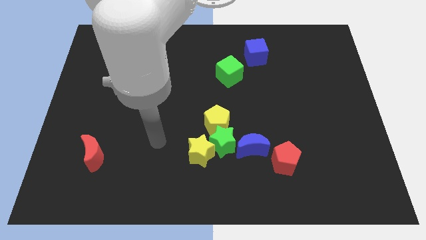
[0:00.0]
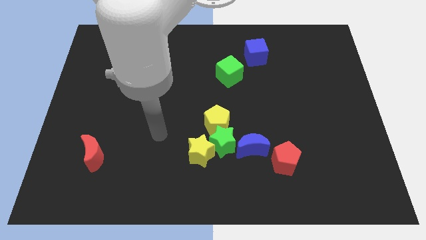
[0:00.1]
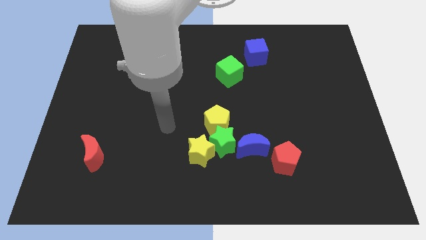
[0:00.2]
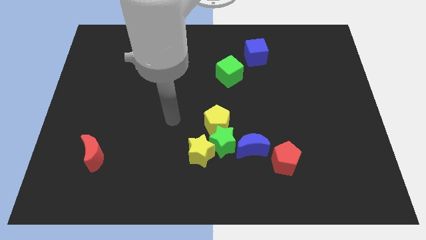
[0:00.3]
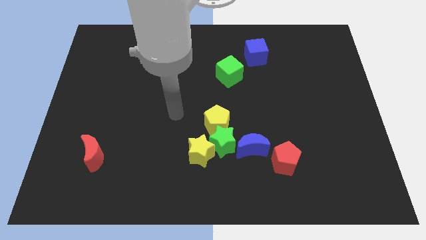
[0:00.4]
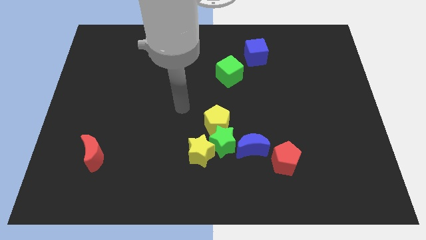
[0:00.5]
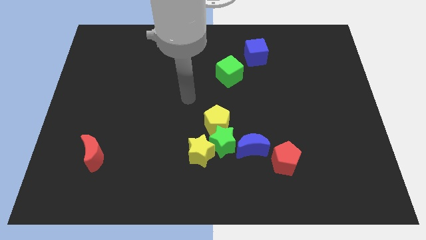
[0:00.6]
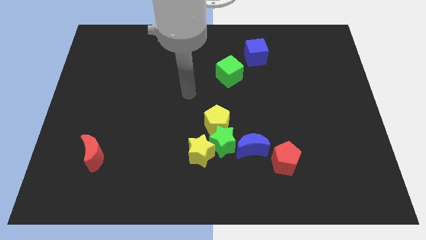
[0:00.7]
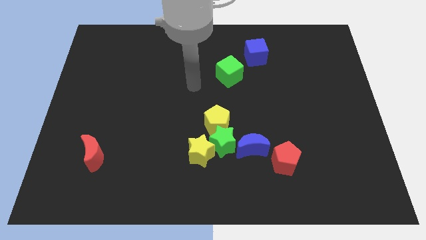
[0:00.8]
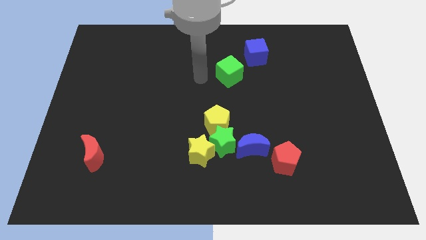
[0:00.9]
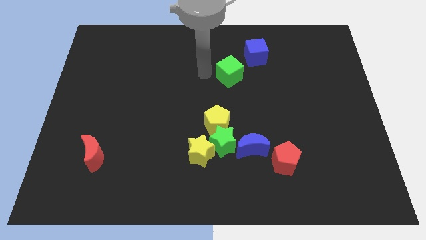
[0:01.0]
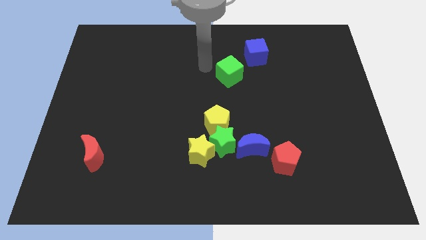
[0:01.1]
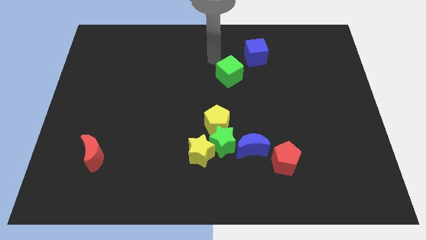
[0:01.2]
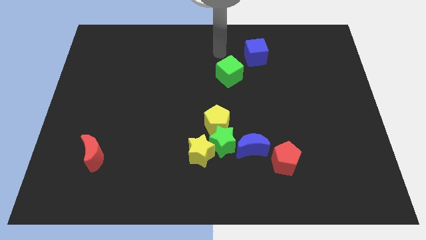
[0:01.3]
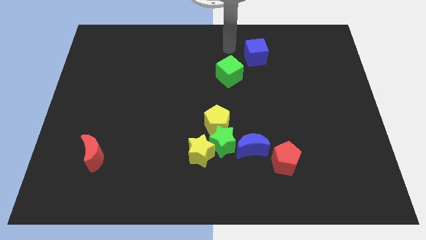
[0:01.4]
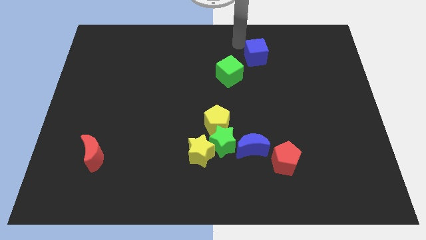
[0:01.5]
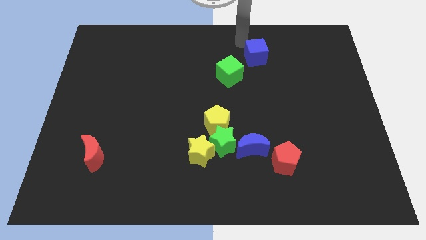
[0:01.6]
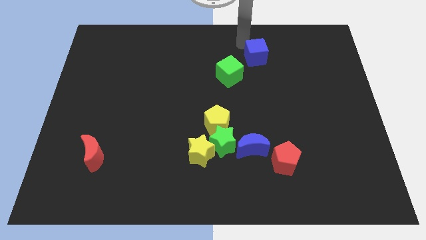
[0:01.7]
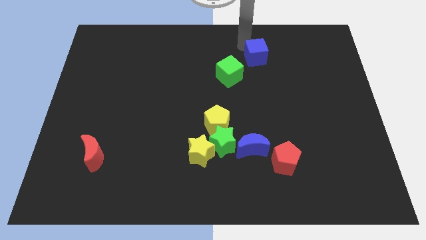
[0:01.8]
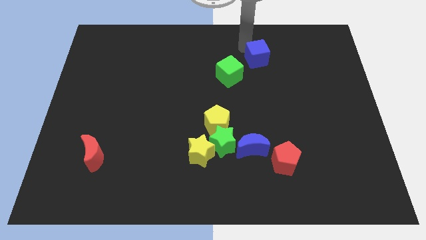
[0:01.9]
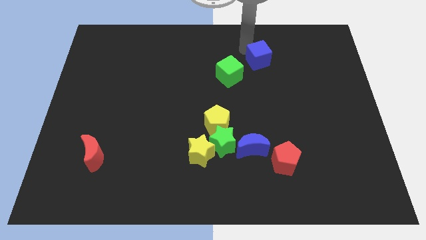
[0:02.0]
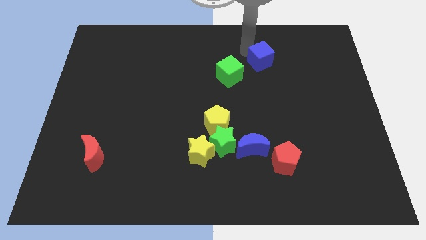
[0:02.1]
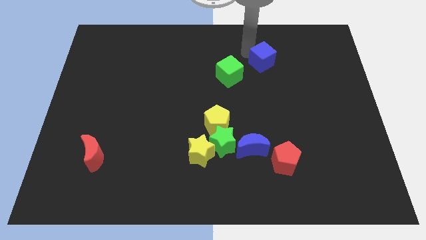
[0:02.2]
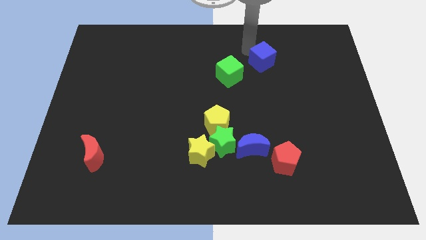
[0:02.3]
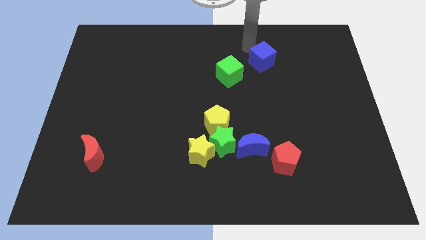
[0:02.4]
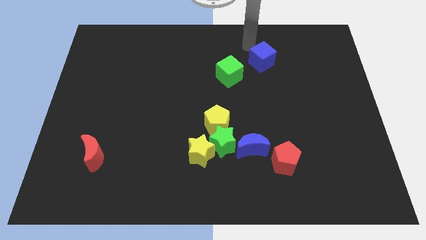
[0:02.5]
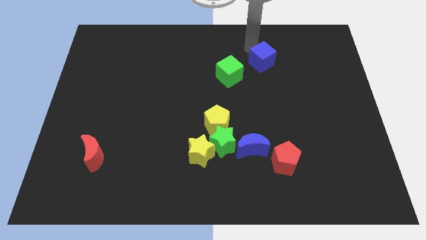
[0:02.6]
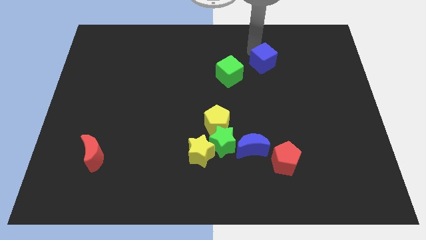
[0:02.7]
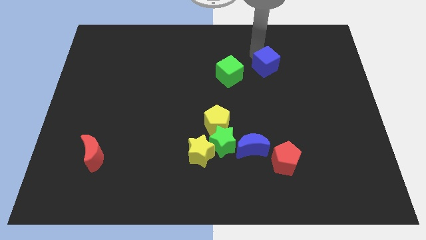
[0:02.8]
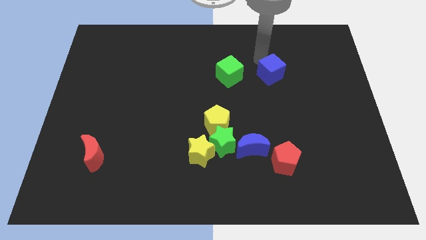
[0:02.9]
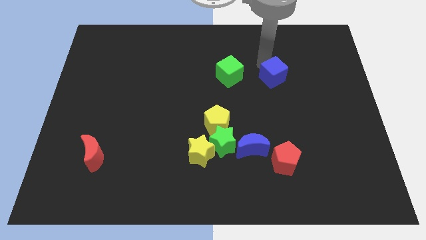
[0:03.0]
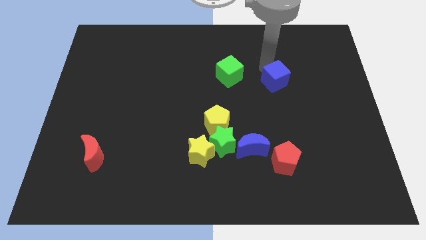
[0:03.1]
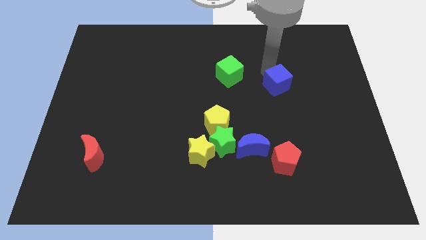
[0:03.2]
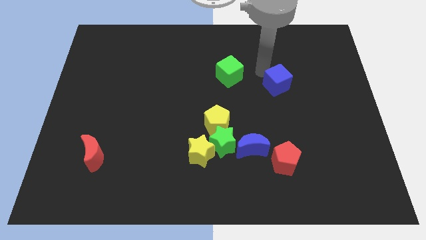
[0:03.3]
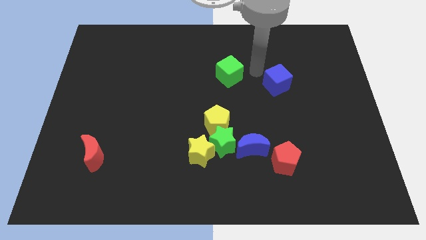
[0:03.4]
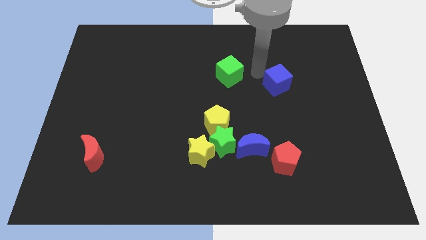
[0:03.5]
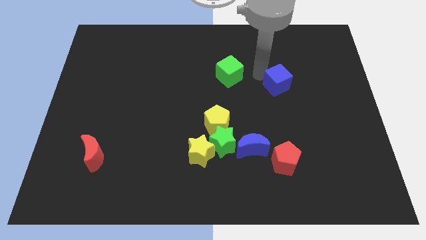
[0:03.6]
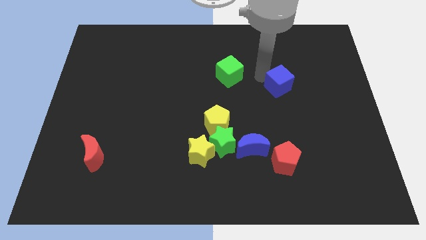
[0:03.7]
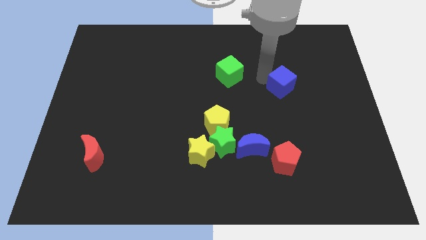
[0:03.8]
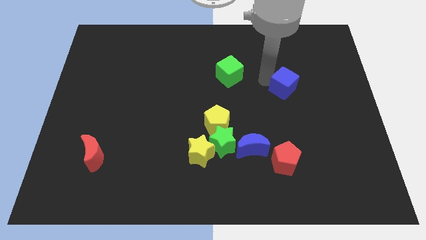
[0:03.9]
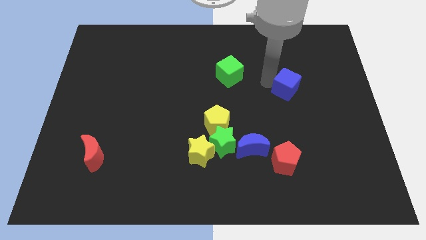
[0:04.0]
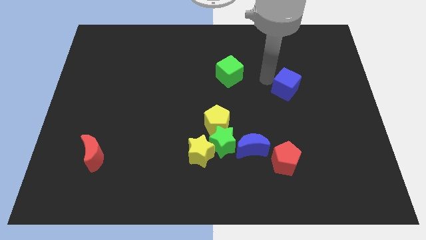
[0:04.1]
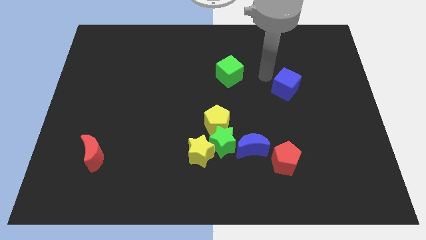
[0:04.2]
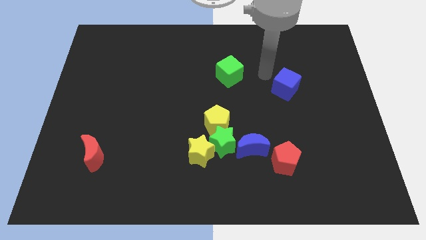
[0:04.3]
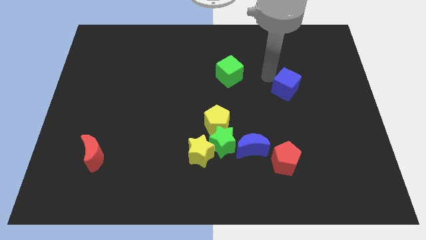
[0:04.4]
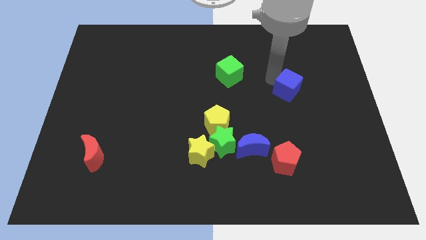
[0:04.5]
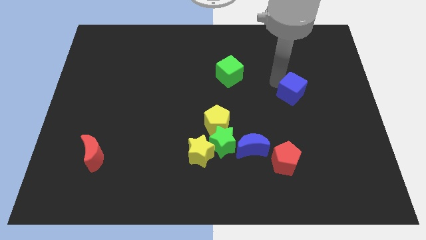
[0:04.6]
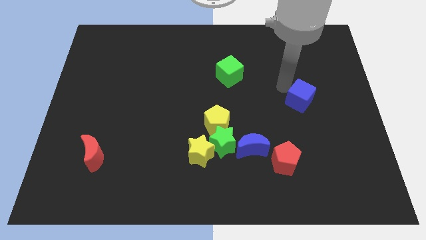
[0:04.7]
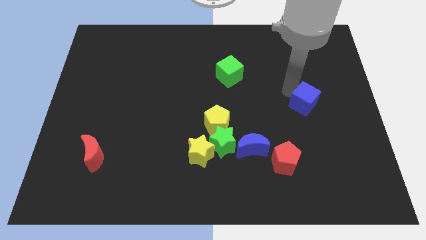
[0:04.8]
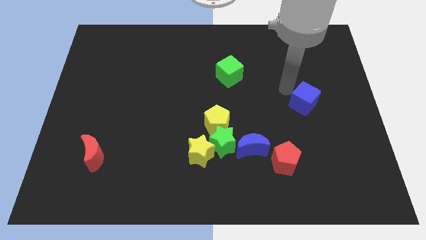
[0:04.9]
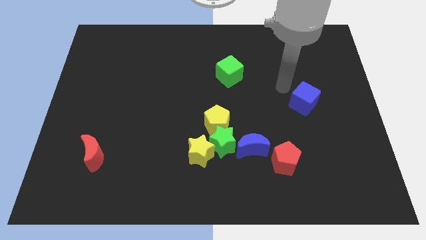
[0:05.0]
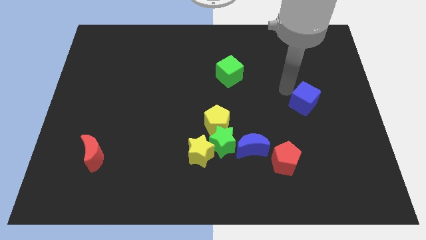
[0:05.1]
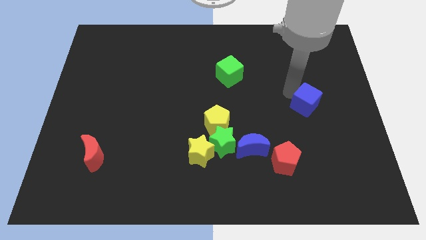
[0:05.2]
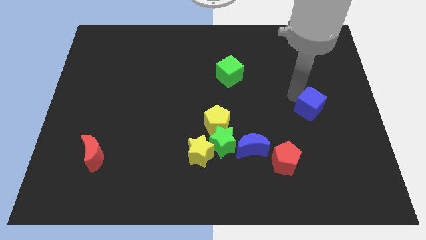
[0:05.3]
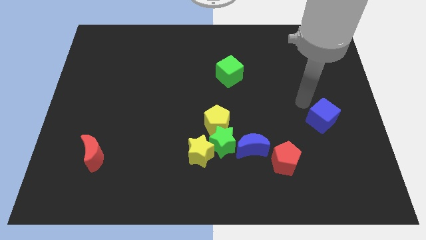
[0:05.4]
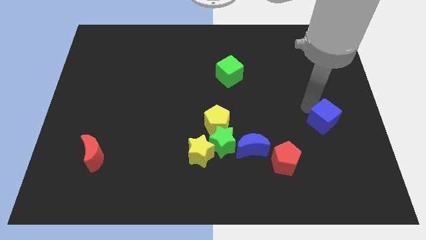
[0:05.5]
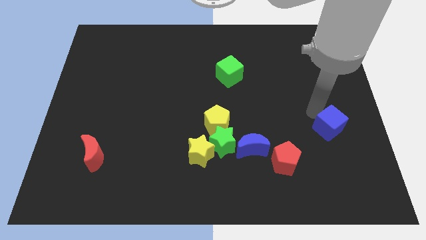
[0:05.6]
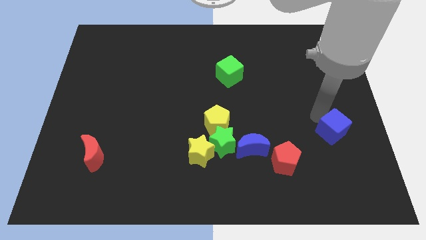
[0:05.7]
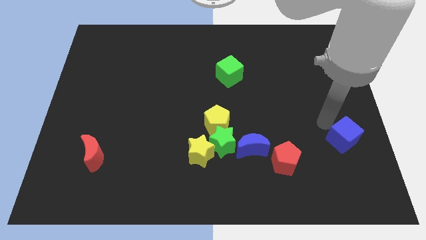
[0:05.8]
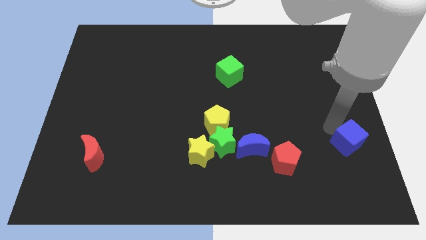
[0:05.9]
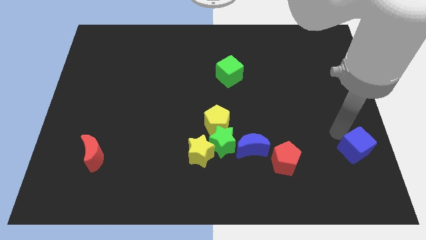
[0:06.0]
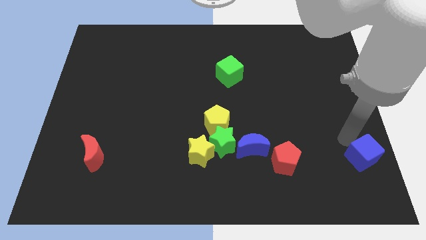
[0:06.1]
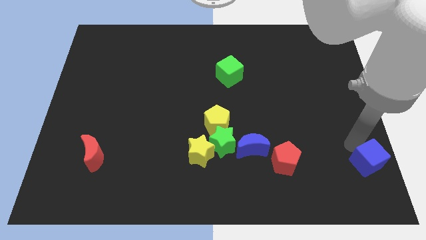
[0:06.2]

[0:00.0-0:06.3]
put the blue cube to the bottom right
